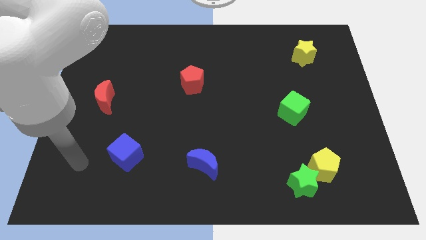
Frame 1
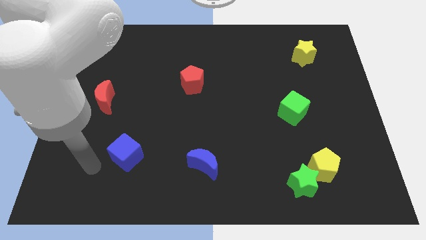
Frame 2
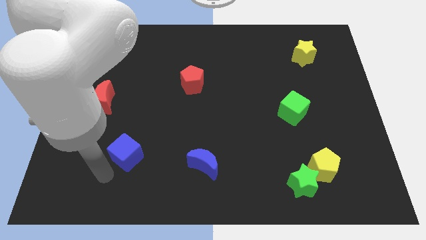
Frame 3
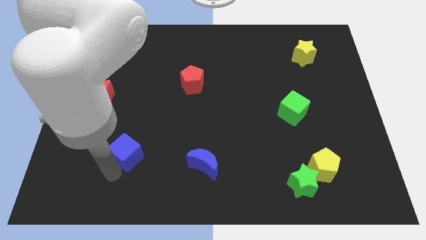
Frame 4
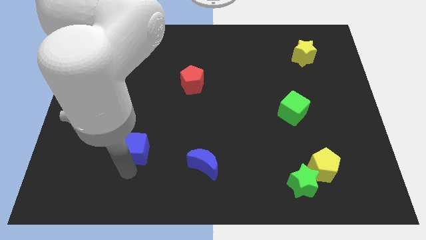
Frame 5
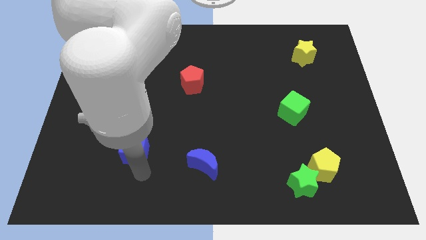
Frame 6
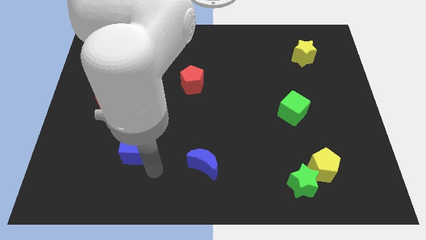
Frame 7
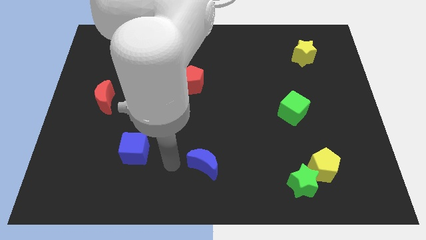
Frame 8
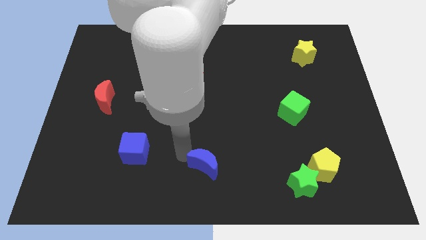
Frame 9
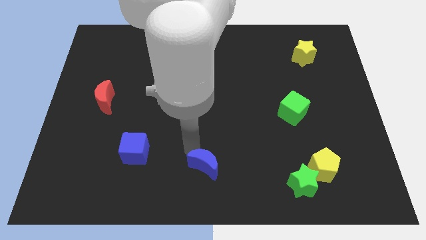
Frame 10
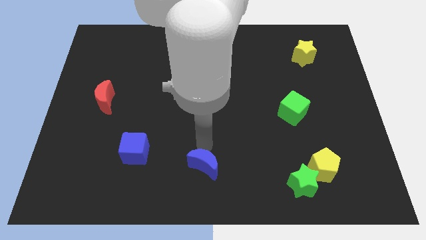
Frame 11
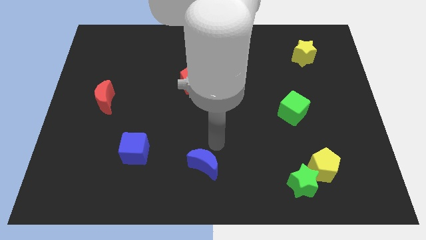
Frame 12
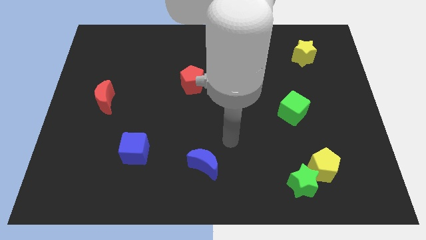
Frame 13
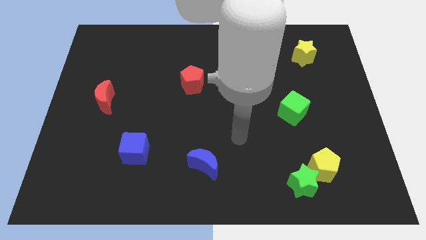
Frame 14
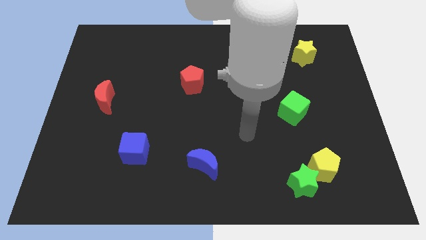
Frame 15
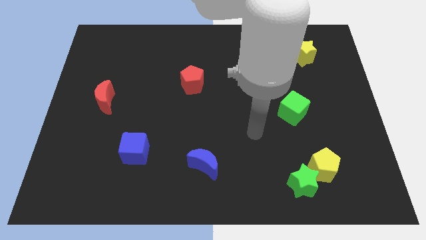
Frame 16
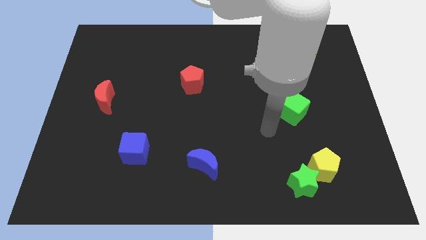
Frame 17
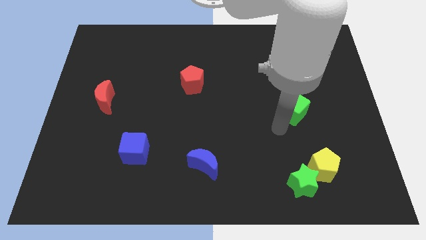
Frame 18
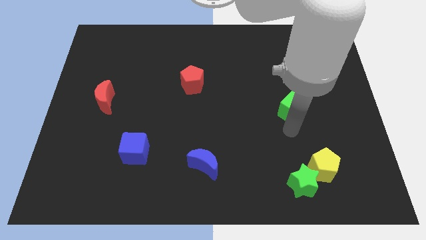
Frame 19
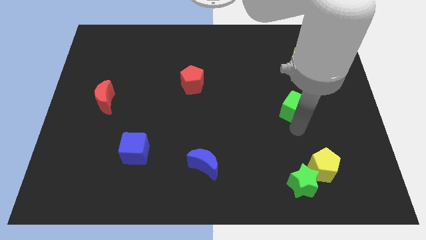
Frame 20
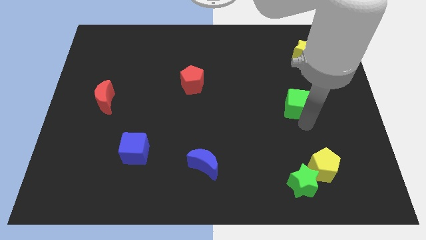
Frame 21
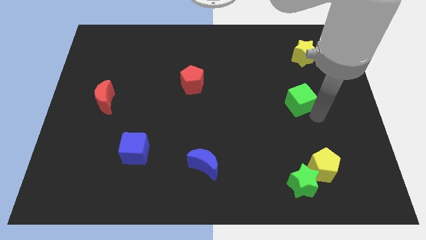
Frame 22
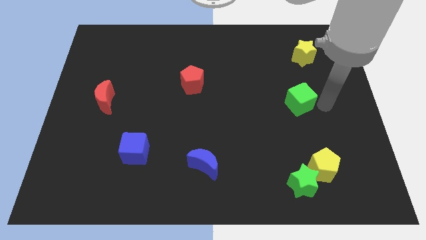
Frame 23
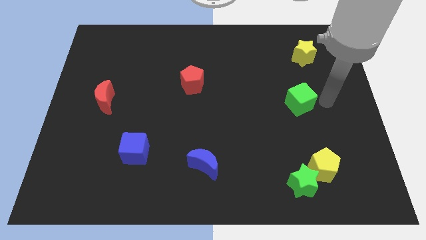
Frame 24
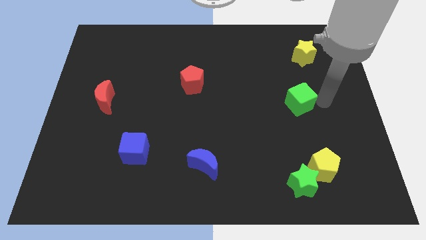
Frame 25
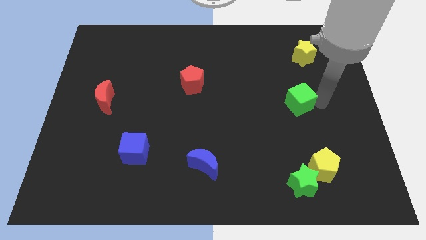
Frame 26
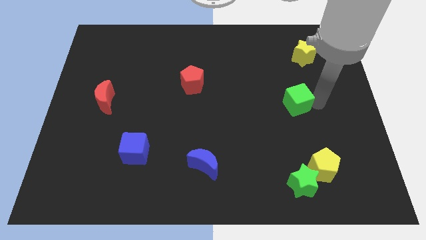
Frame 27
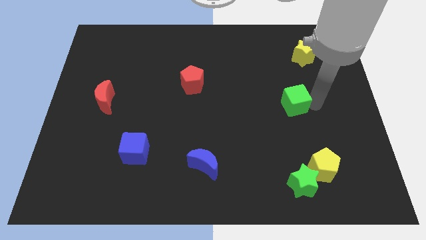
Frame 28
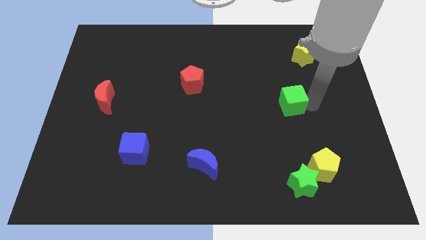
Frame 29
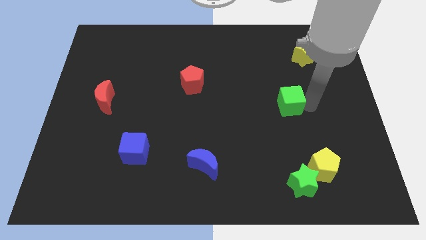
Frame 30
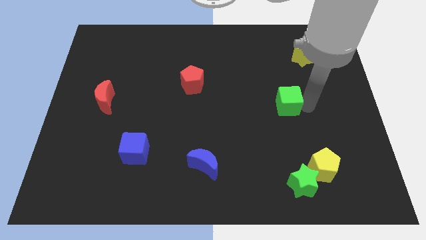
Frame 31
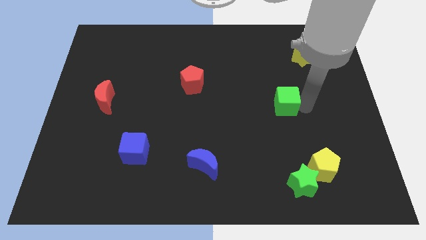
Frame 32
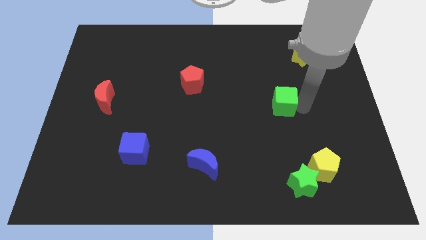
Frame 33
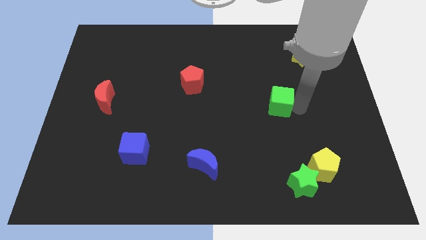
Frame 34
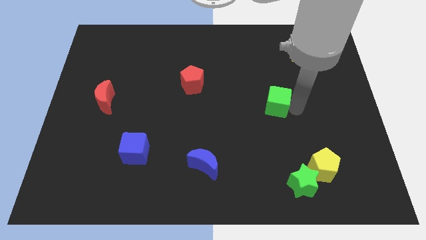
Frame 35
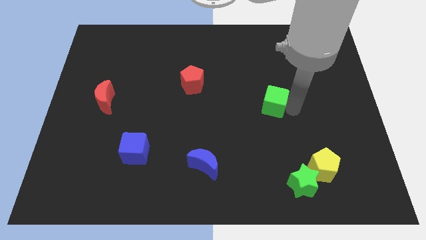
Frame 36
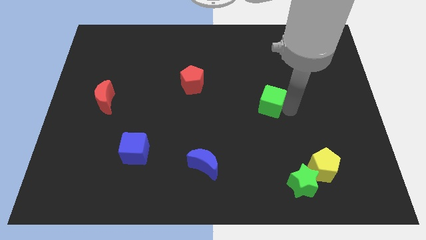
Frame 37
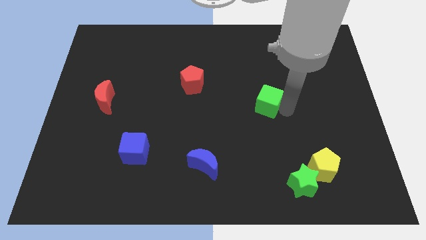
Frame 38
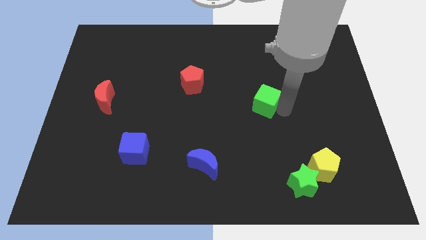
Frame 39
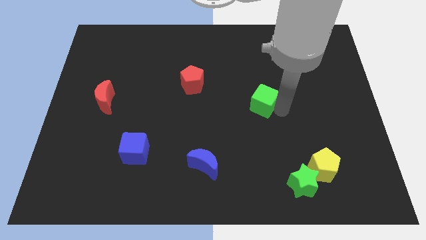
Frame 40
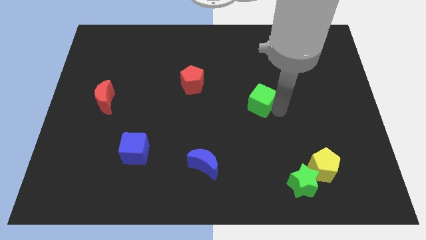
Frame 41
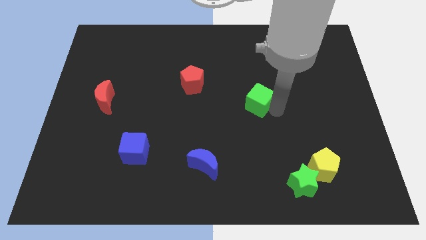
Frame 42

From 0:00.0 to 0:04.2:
move the green cube diagonally up and to the left somewhat

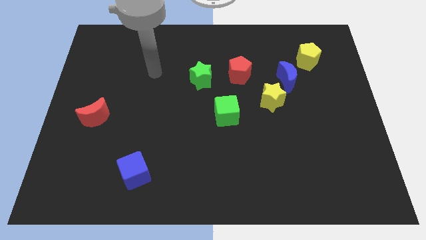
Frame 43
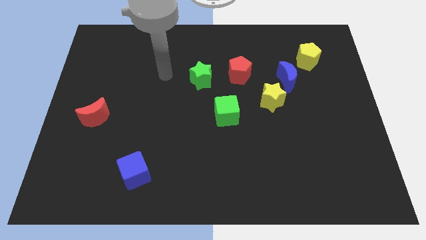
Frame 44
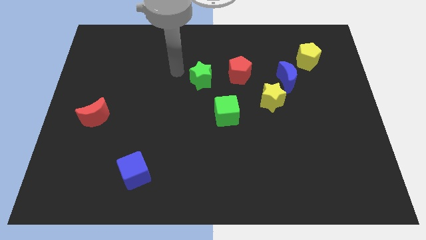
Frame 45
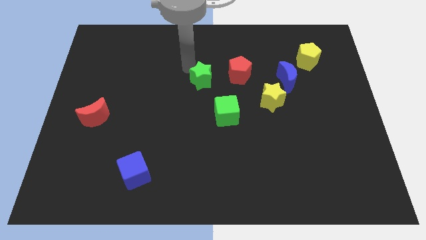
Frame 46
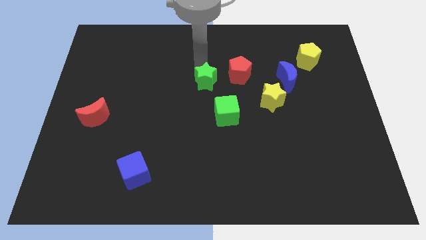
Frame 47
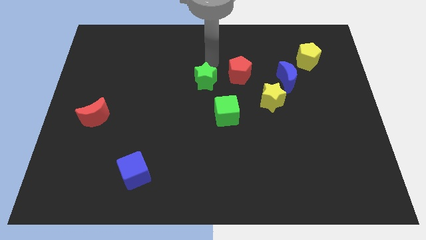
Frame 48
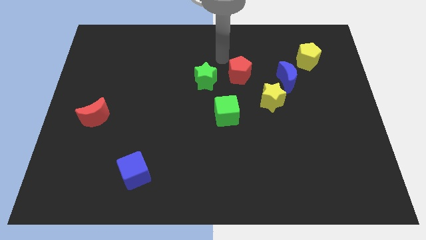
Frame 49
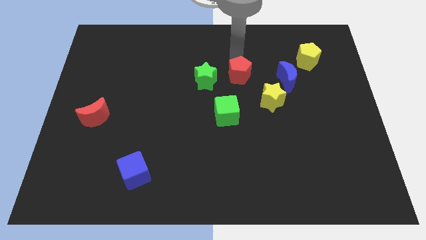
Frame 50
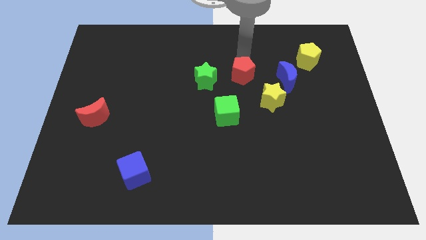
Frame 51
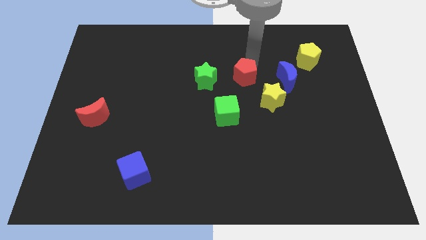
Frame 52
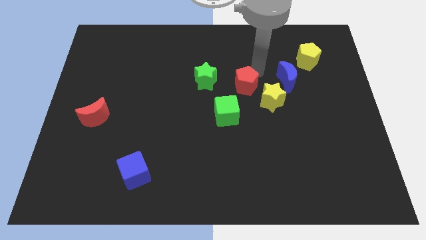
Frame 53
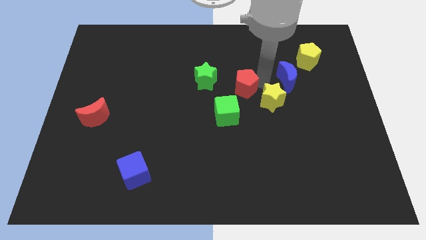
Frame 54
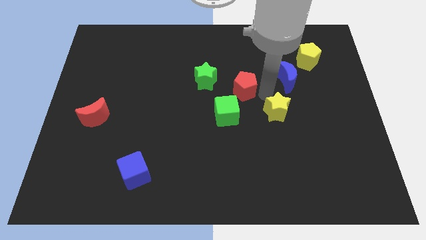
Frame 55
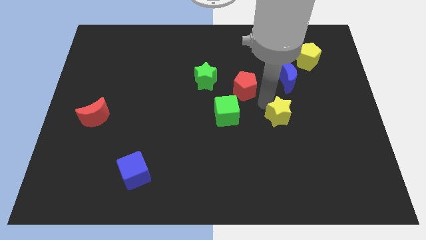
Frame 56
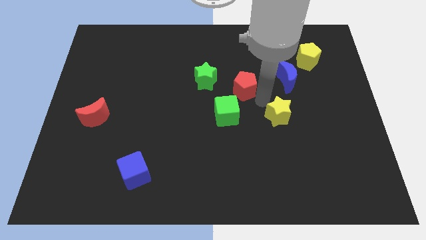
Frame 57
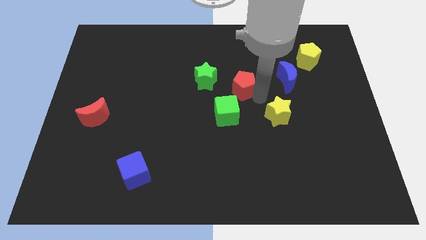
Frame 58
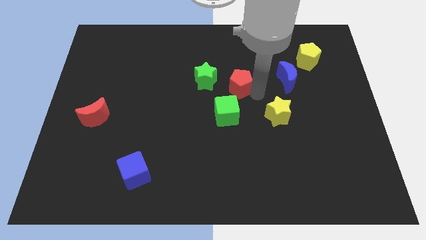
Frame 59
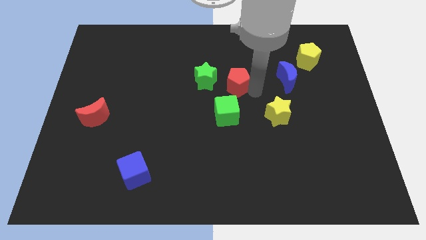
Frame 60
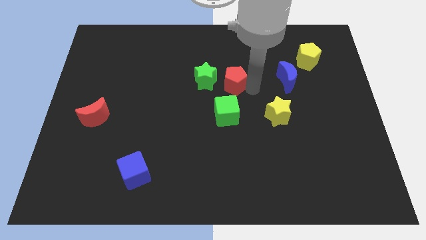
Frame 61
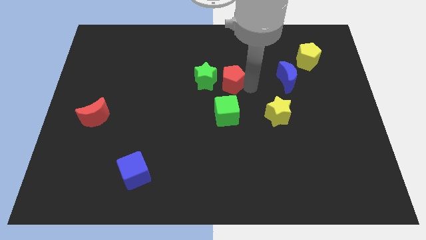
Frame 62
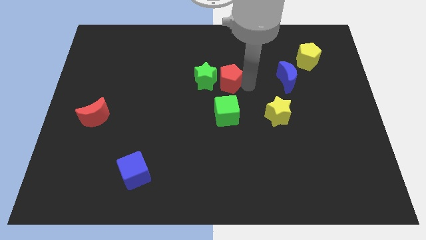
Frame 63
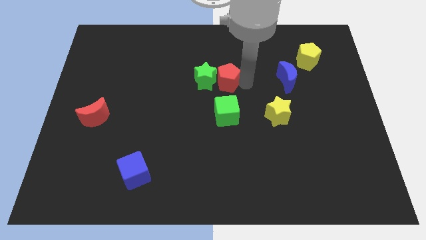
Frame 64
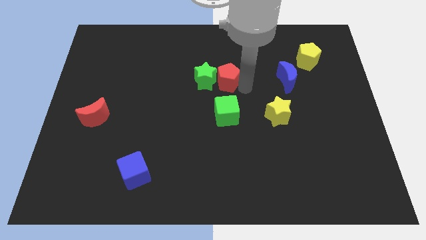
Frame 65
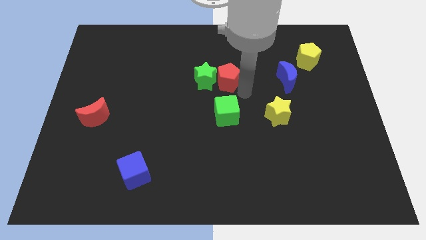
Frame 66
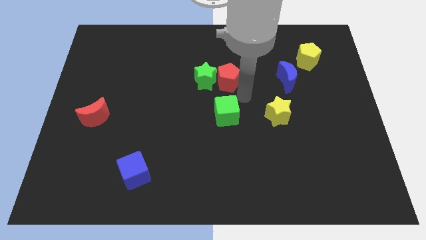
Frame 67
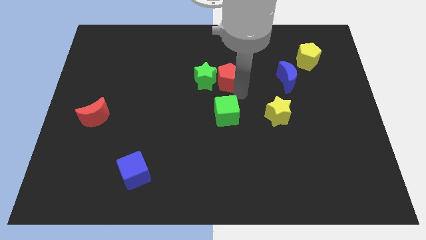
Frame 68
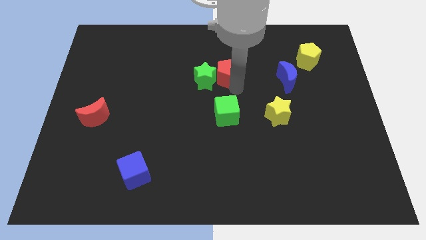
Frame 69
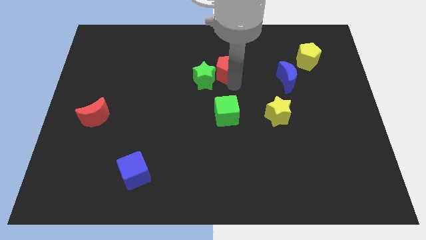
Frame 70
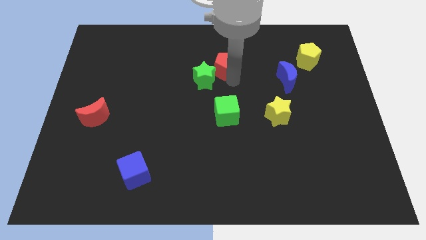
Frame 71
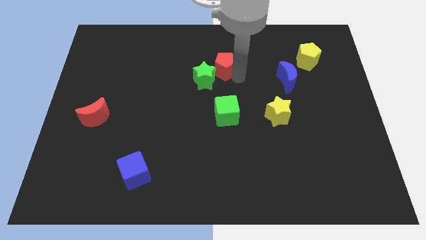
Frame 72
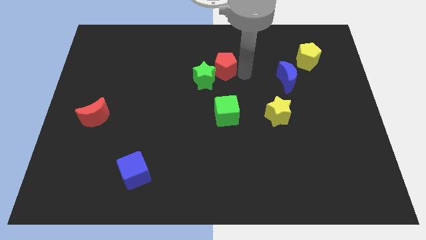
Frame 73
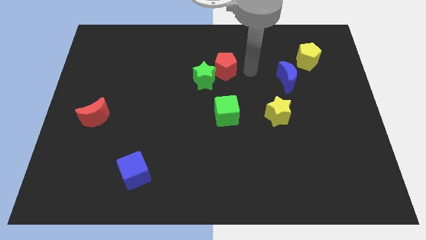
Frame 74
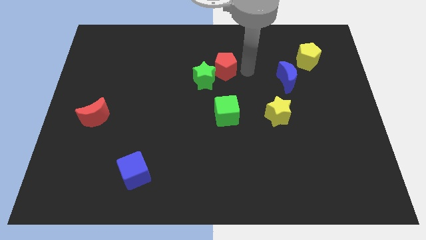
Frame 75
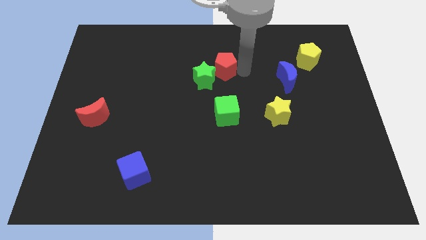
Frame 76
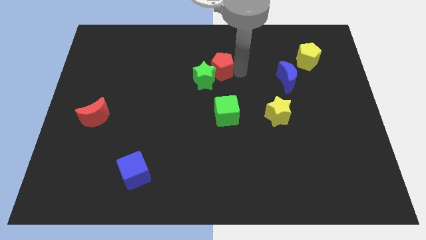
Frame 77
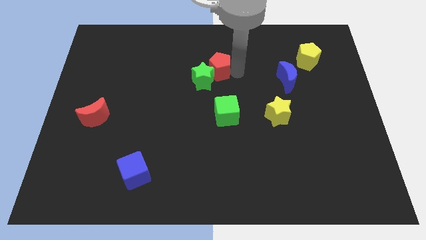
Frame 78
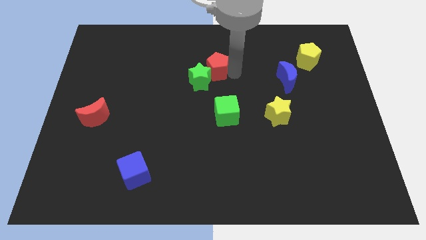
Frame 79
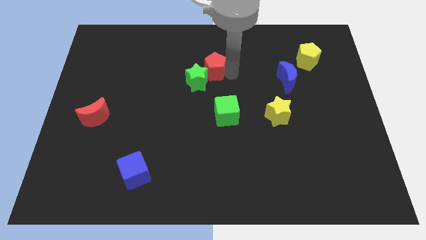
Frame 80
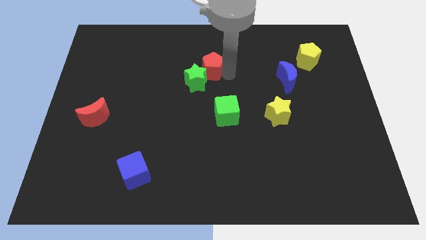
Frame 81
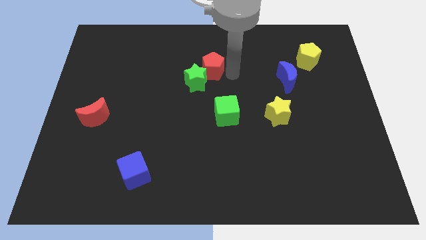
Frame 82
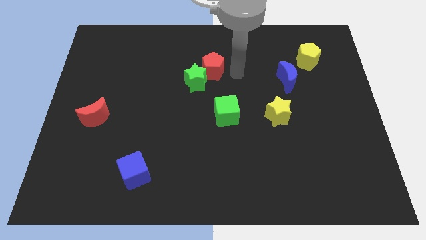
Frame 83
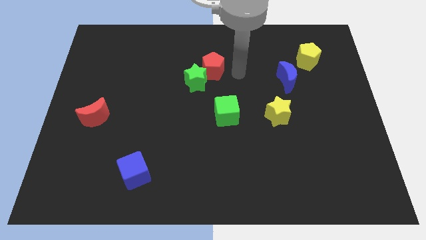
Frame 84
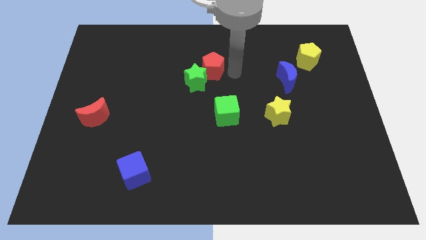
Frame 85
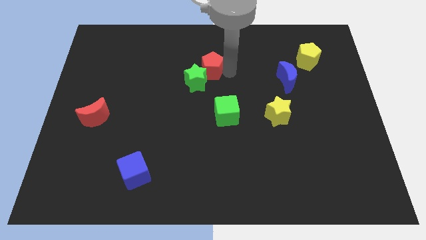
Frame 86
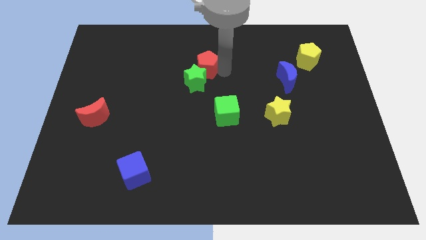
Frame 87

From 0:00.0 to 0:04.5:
move the red pentagon to the left a little bit
